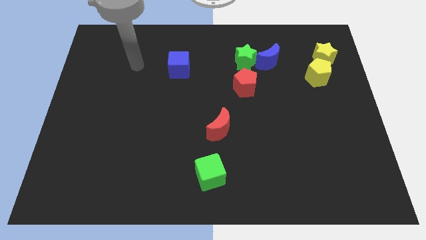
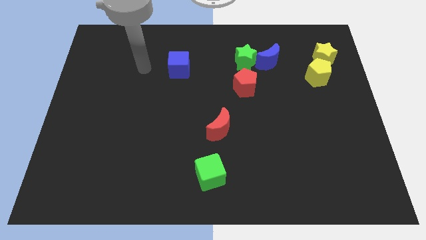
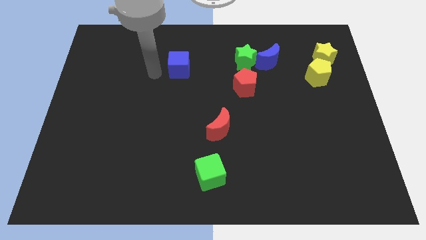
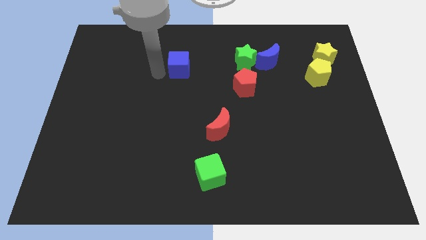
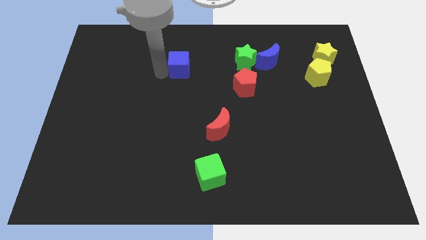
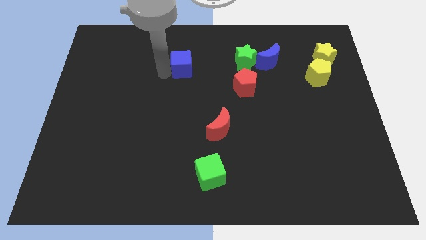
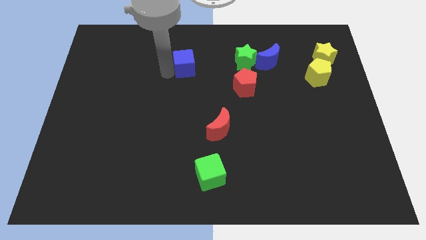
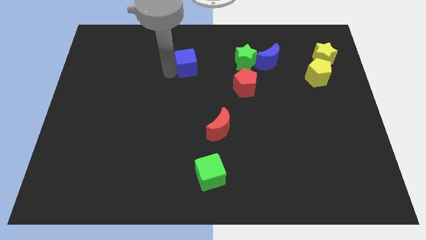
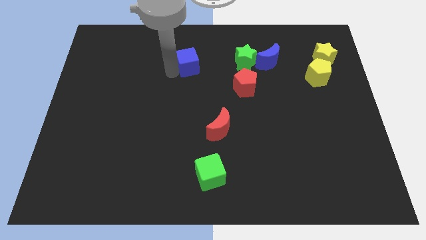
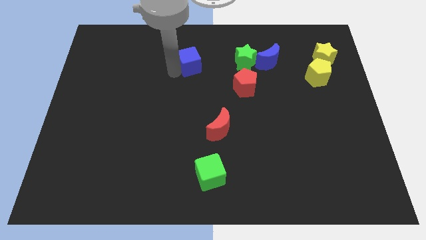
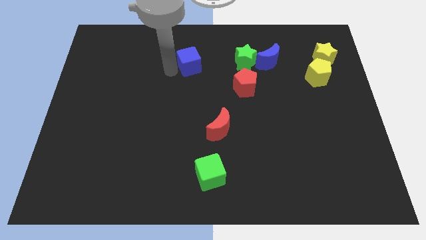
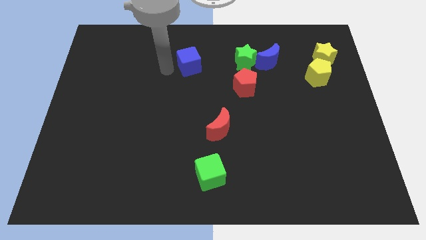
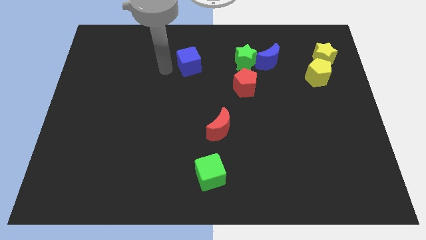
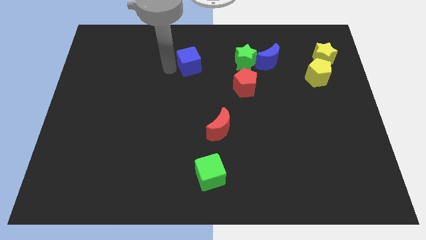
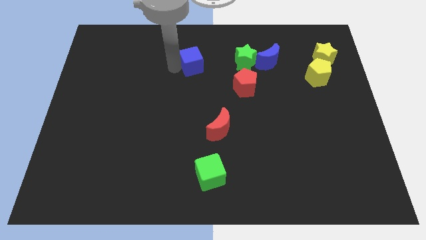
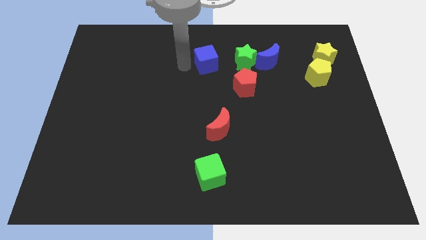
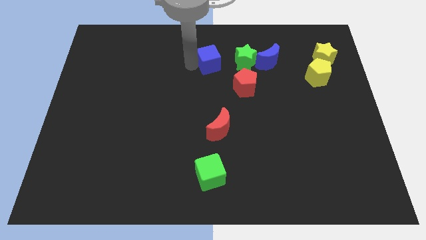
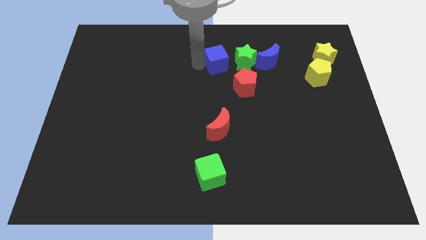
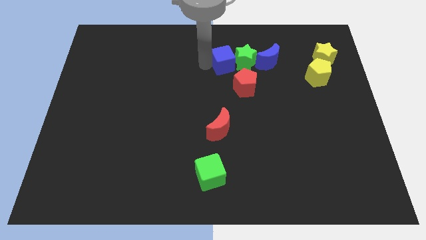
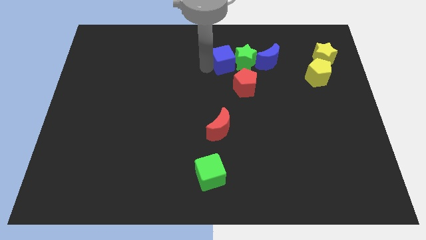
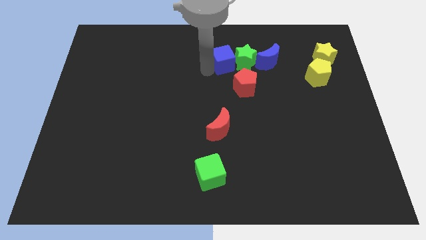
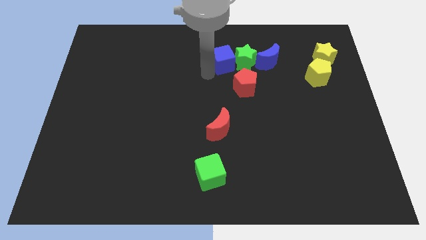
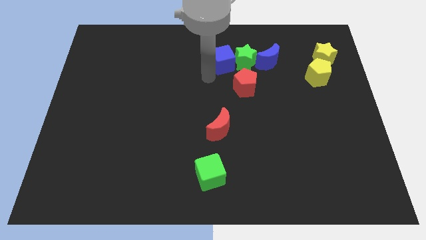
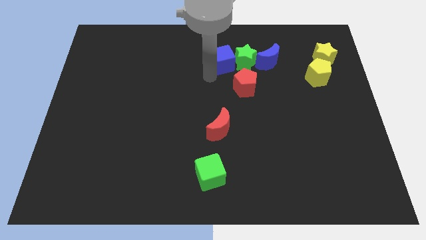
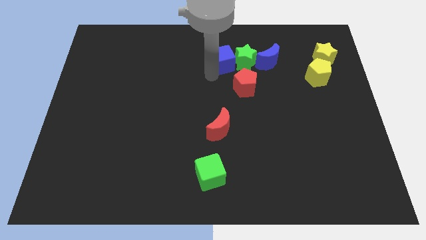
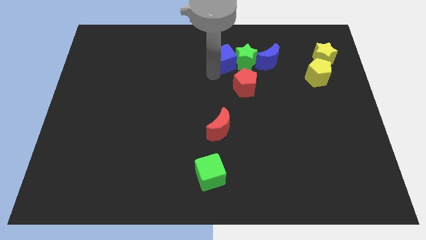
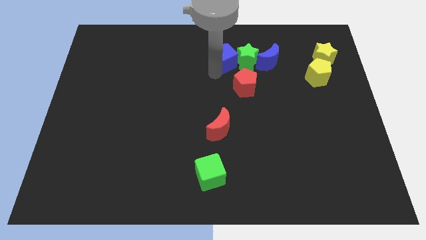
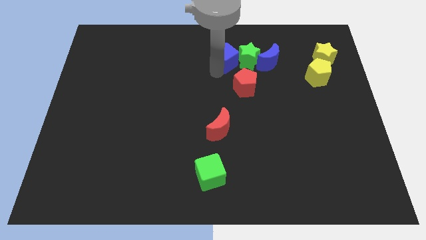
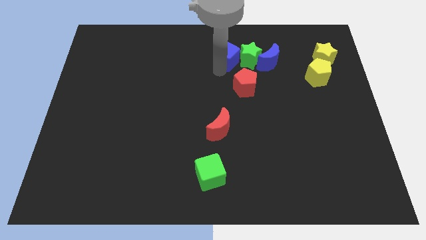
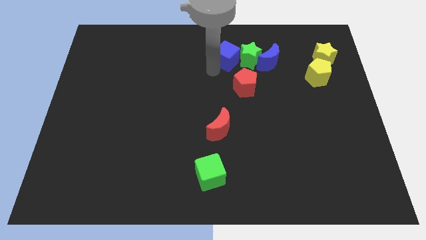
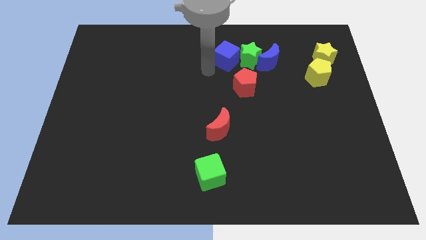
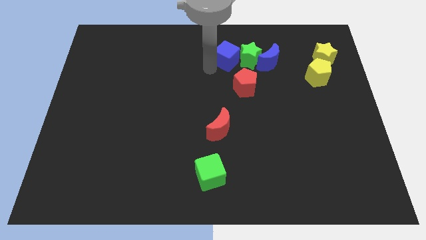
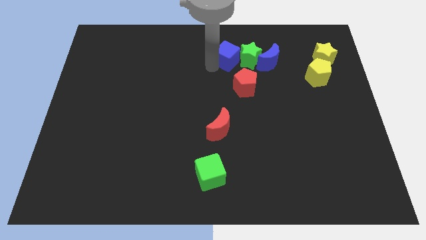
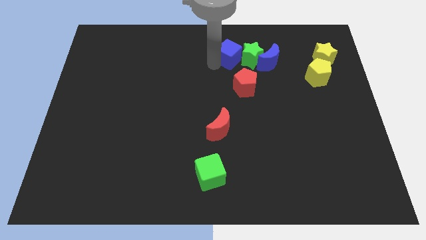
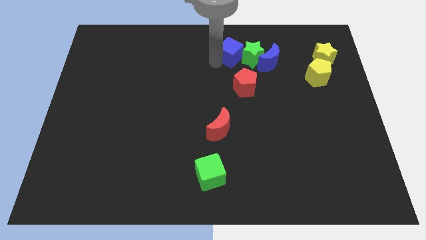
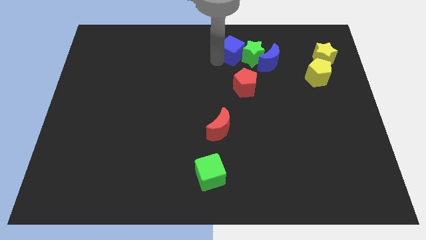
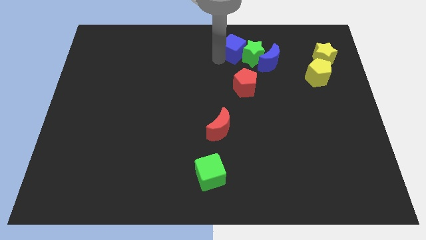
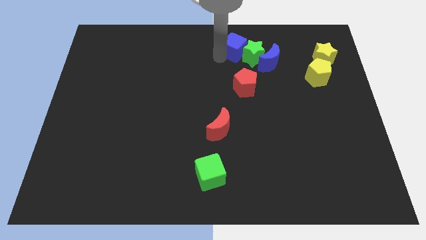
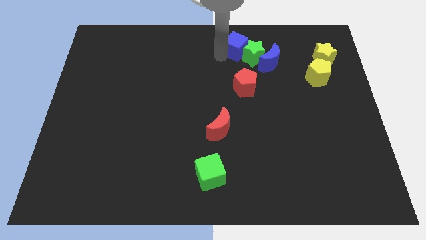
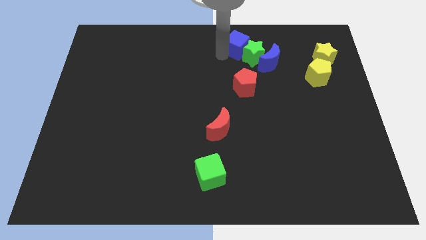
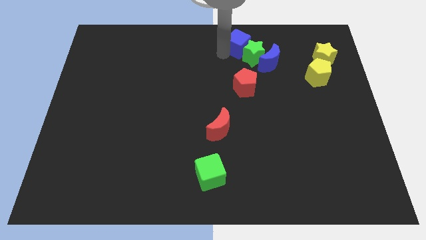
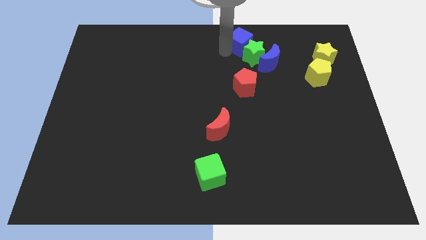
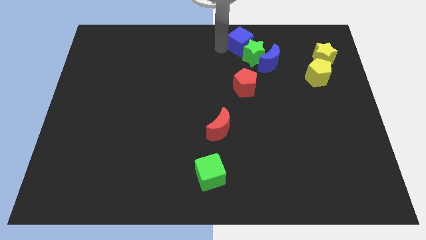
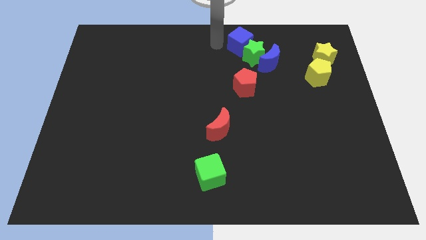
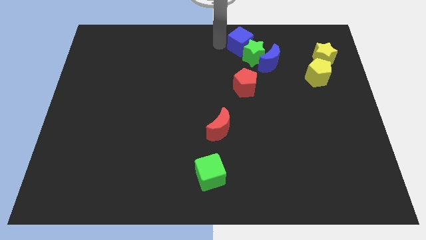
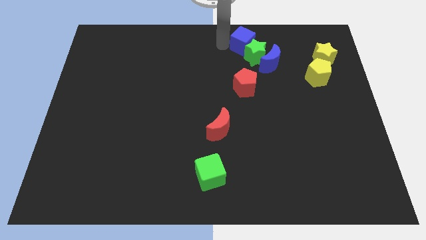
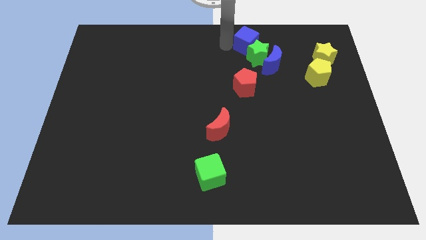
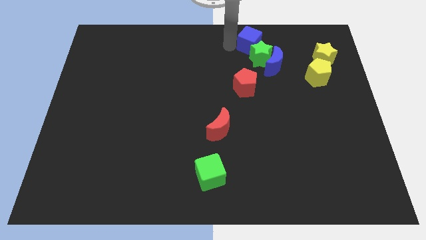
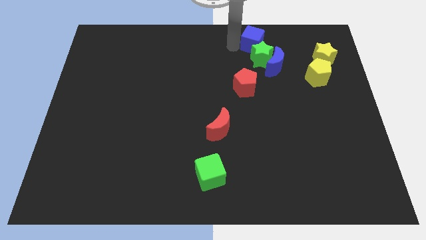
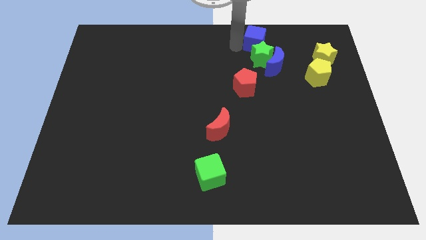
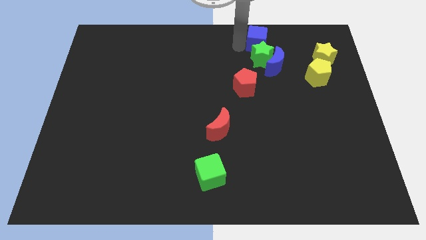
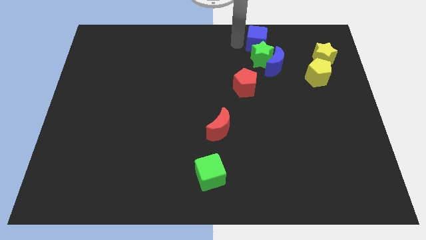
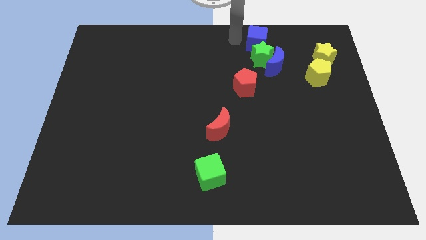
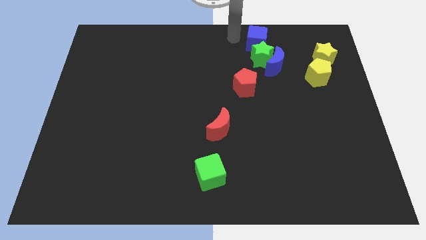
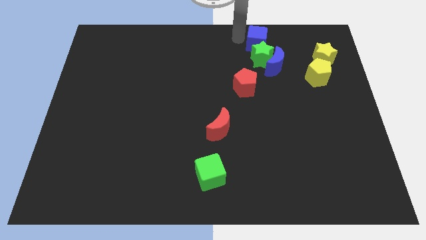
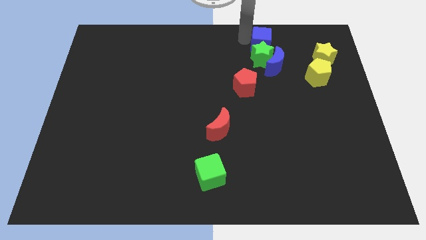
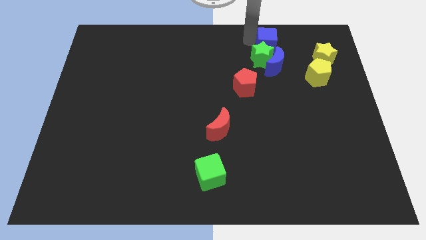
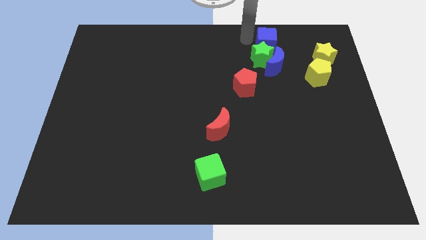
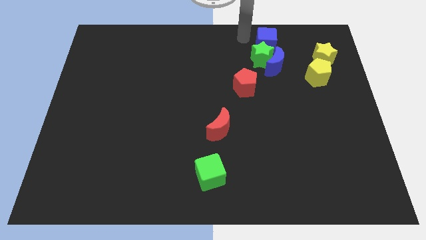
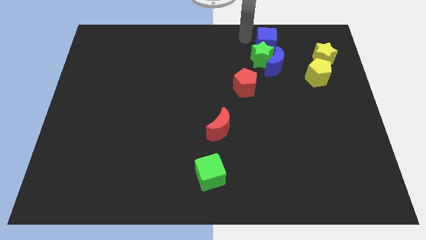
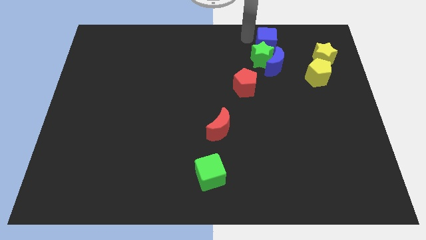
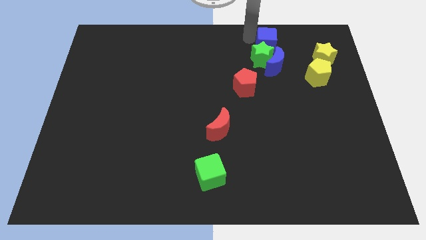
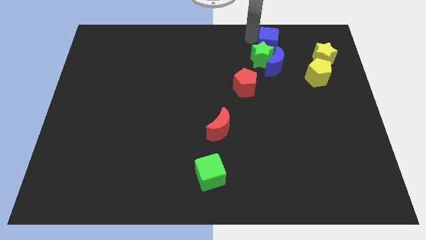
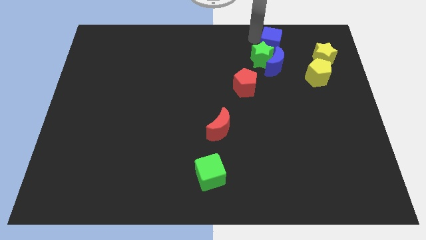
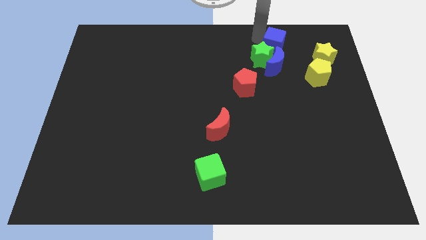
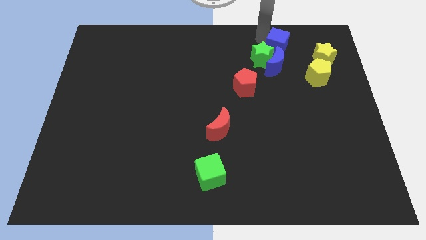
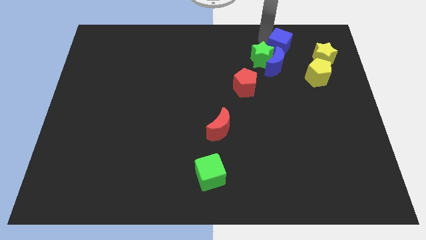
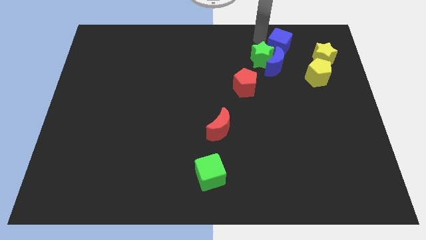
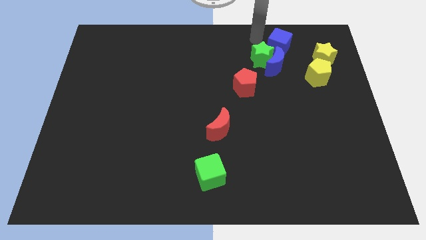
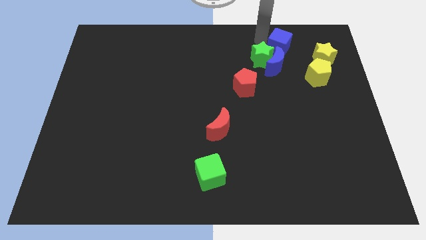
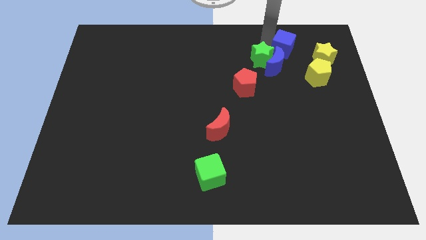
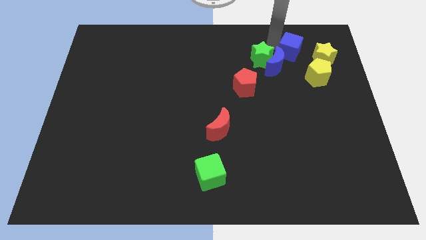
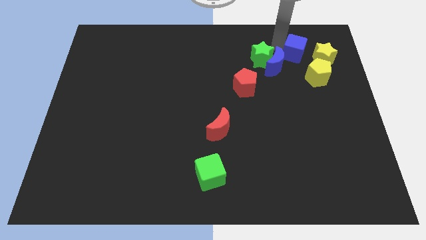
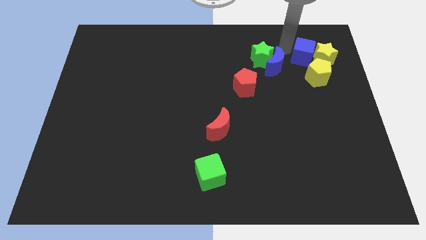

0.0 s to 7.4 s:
slide the blue cube close to the yellow star
